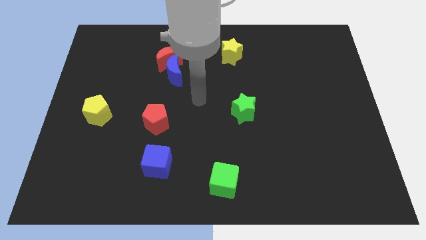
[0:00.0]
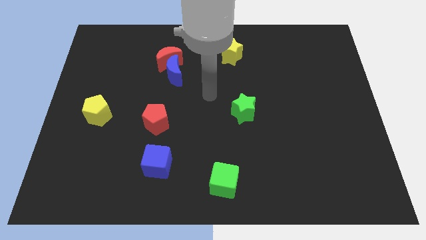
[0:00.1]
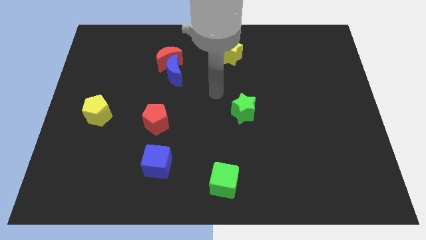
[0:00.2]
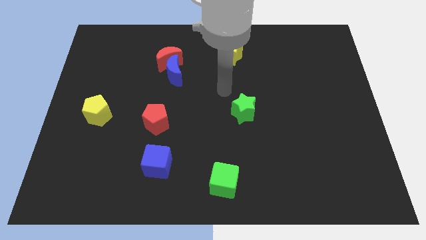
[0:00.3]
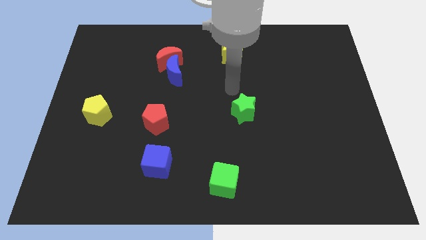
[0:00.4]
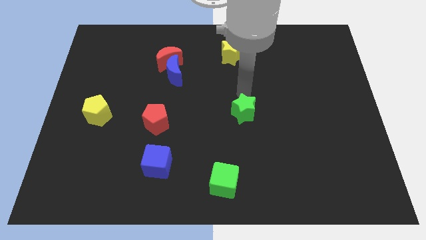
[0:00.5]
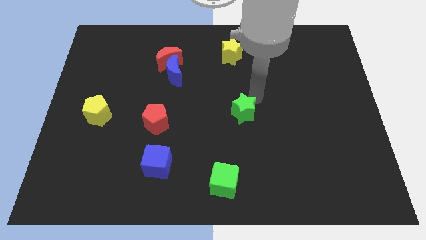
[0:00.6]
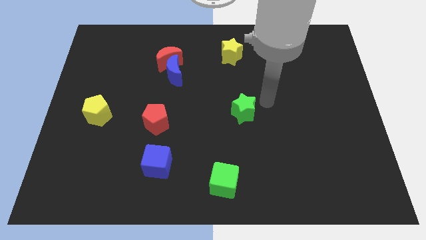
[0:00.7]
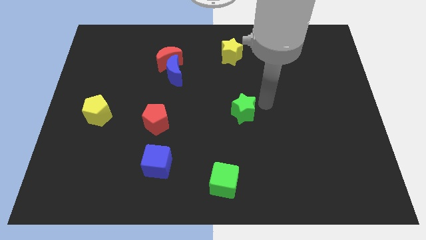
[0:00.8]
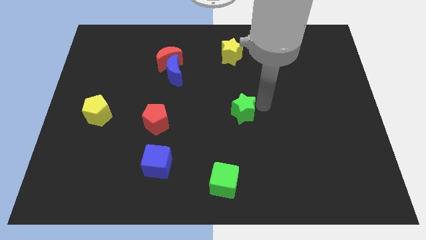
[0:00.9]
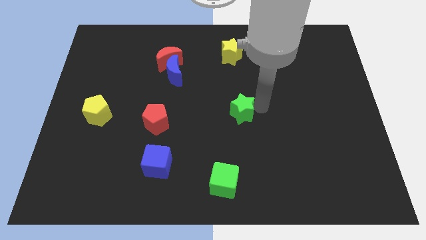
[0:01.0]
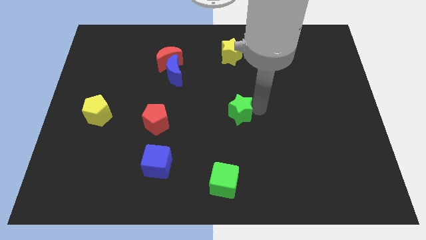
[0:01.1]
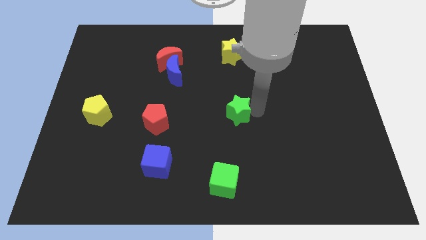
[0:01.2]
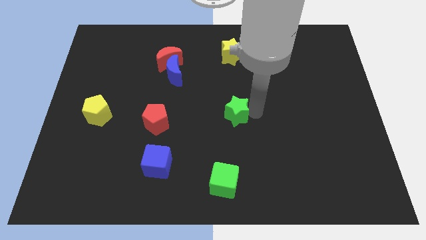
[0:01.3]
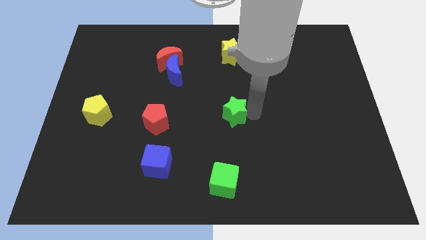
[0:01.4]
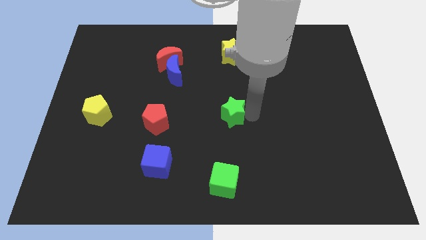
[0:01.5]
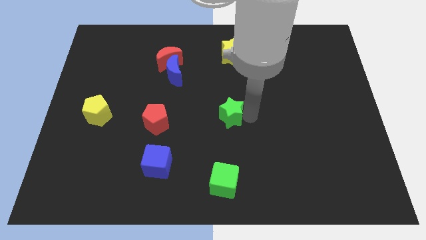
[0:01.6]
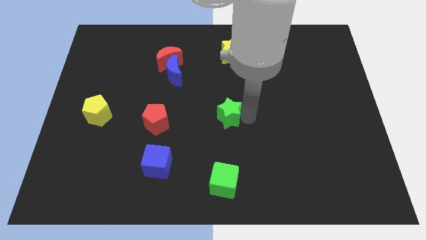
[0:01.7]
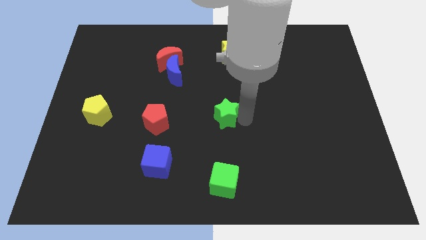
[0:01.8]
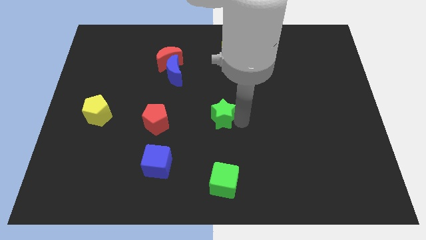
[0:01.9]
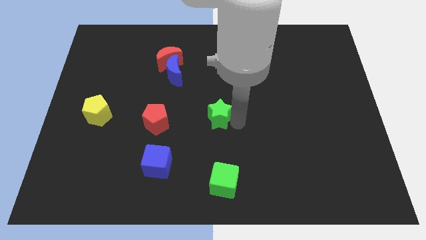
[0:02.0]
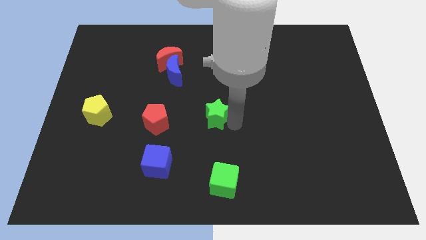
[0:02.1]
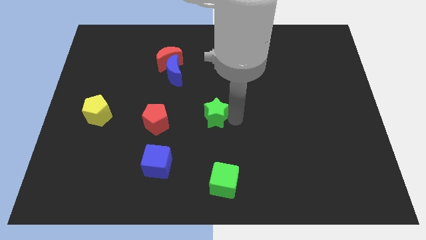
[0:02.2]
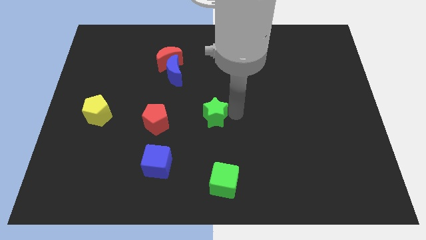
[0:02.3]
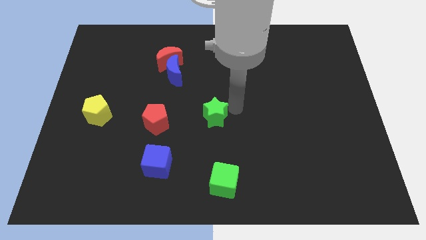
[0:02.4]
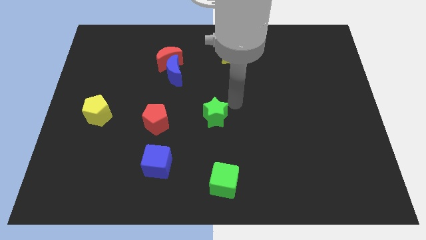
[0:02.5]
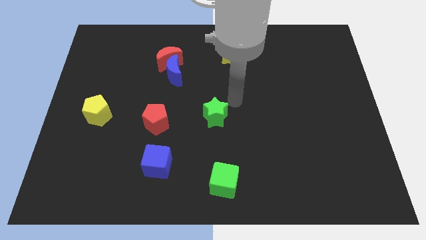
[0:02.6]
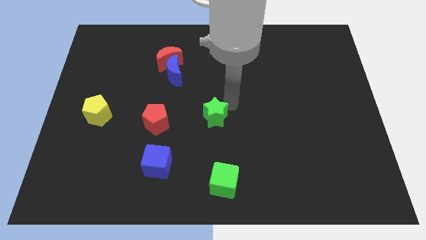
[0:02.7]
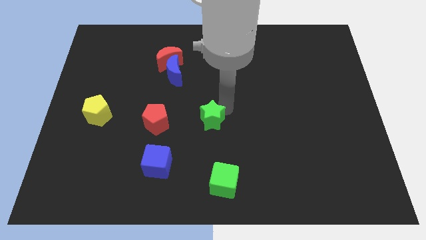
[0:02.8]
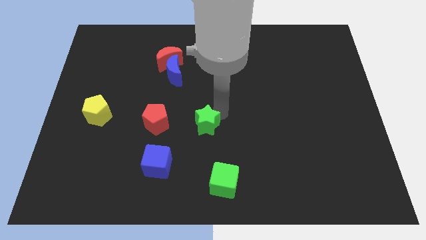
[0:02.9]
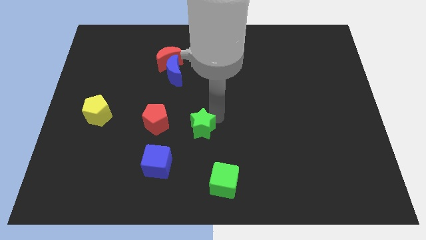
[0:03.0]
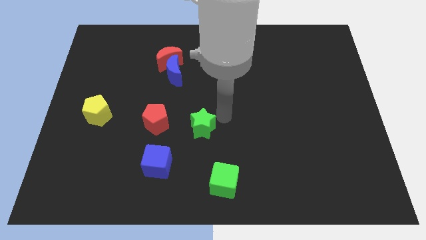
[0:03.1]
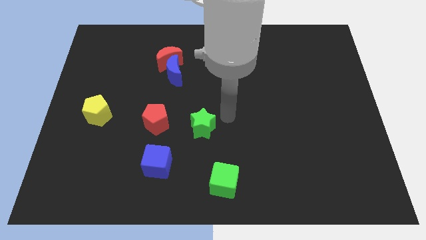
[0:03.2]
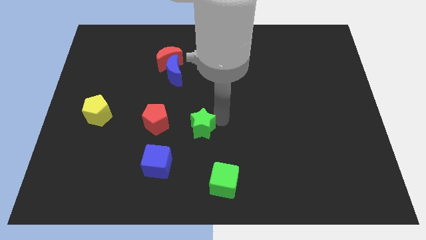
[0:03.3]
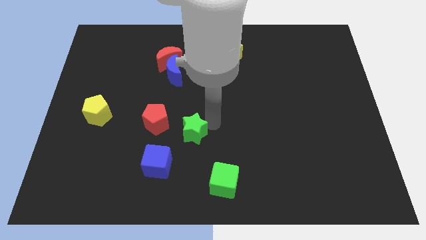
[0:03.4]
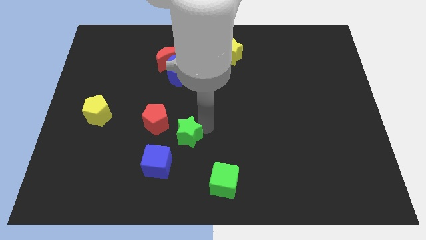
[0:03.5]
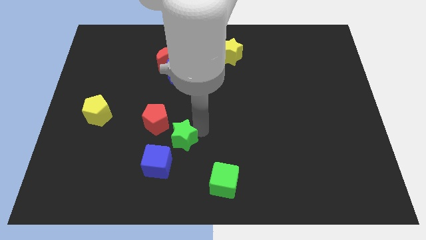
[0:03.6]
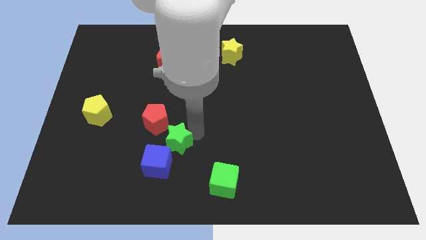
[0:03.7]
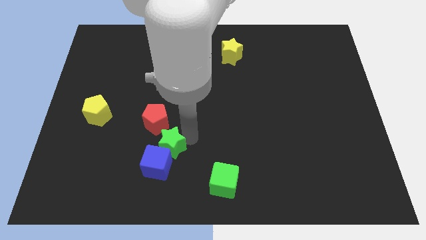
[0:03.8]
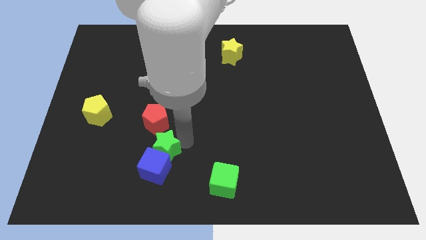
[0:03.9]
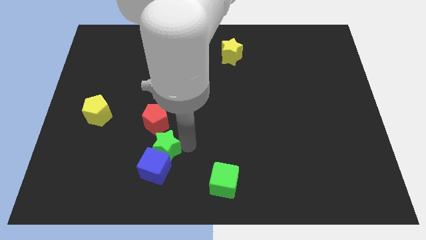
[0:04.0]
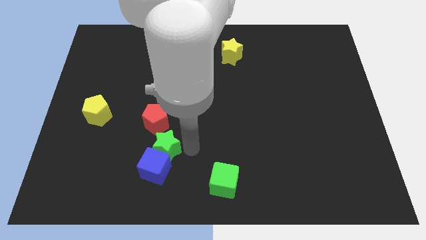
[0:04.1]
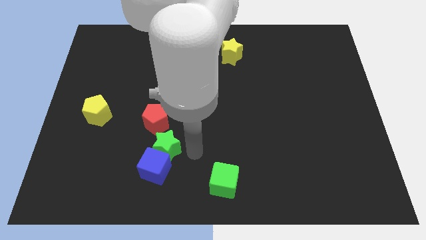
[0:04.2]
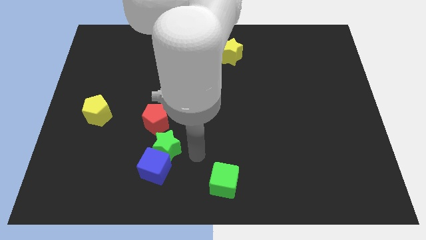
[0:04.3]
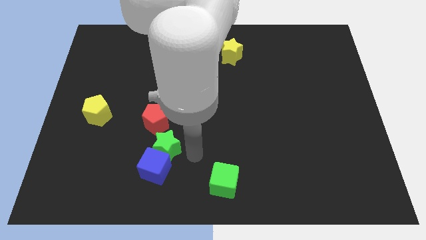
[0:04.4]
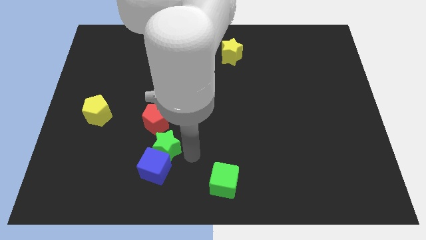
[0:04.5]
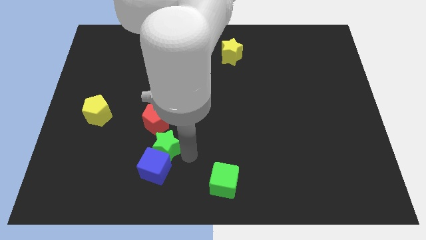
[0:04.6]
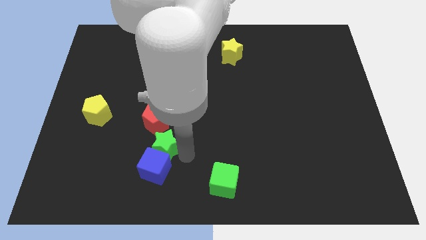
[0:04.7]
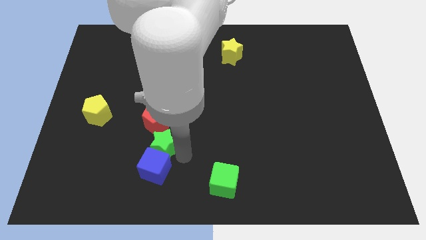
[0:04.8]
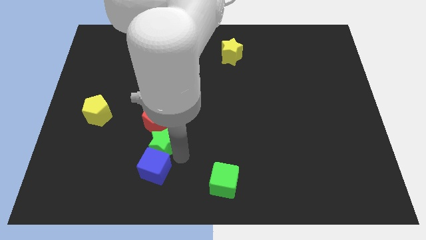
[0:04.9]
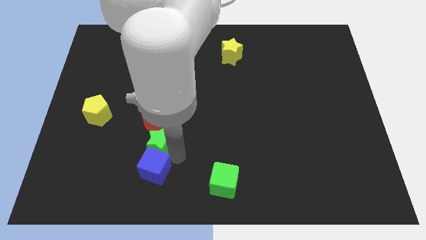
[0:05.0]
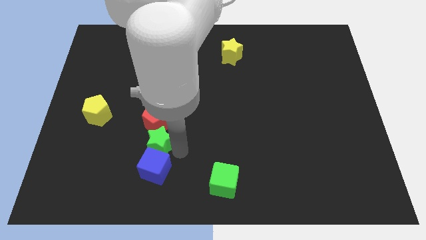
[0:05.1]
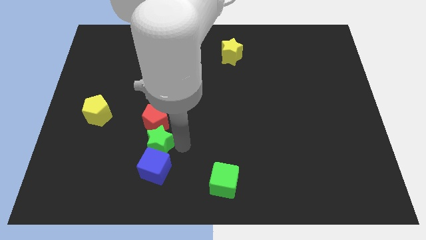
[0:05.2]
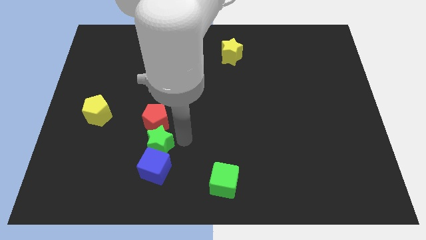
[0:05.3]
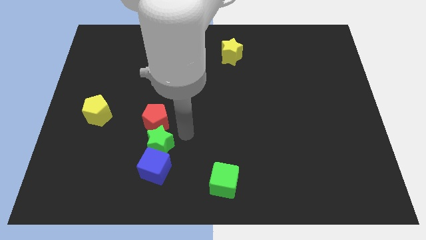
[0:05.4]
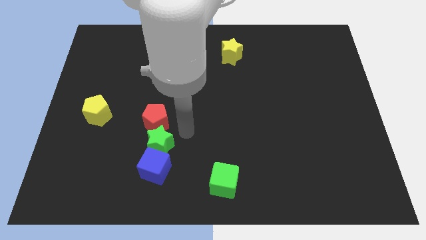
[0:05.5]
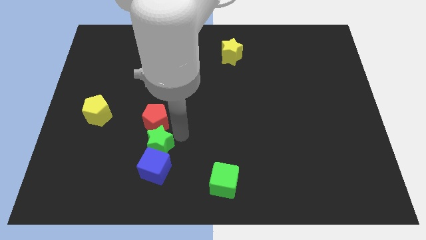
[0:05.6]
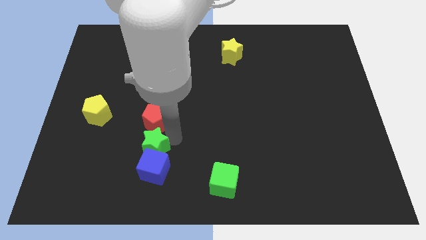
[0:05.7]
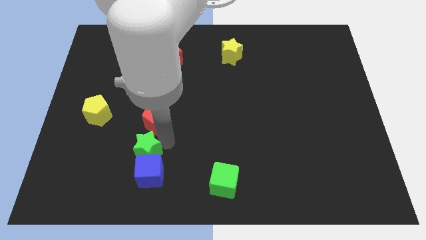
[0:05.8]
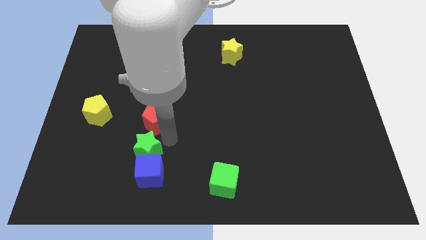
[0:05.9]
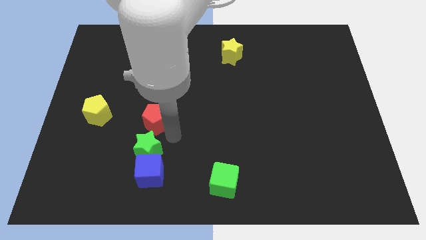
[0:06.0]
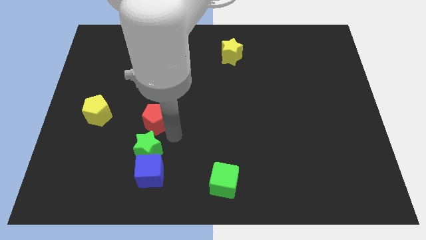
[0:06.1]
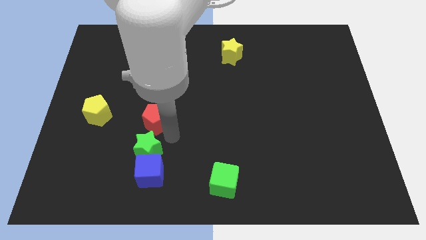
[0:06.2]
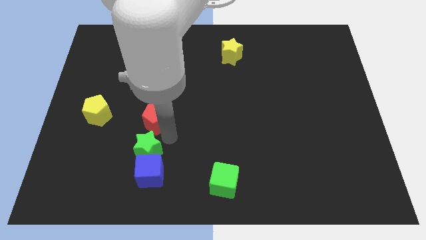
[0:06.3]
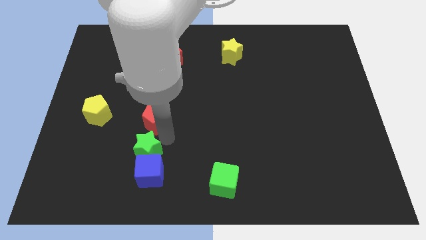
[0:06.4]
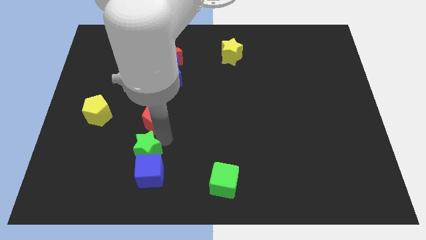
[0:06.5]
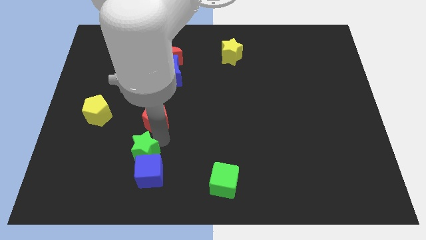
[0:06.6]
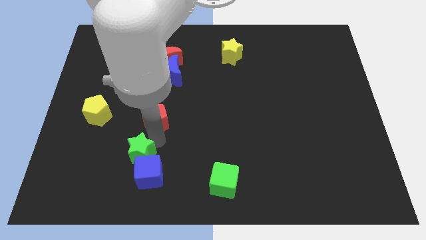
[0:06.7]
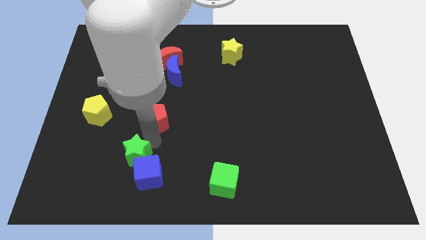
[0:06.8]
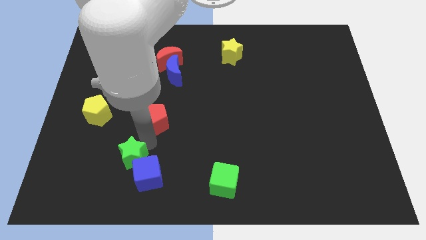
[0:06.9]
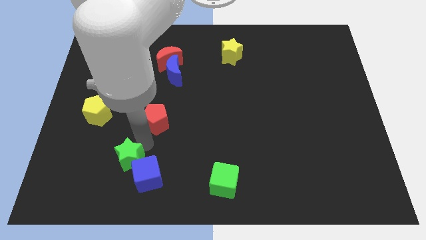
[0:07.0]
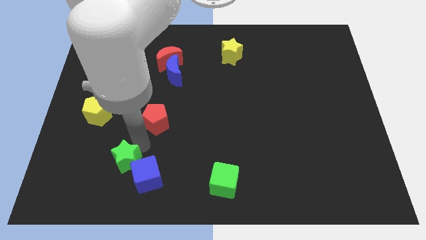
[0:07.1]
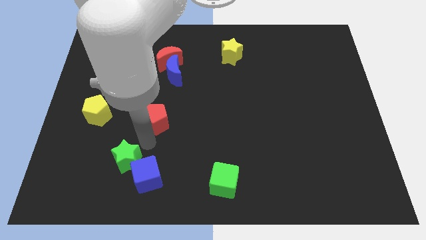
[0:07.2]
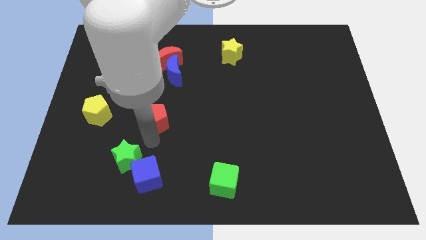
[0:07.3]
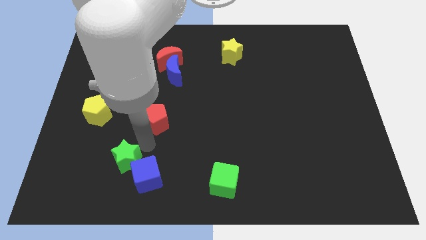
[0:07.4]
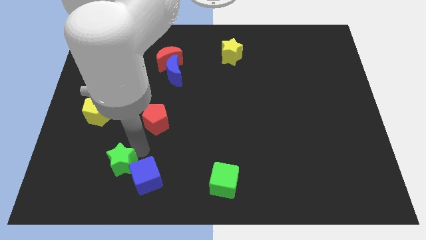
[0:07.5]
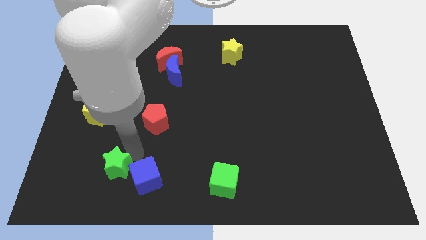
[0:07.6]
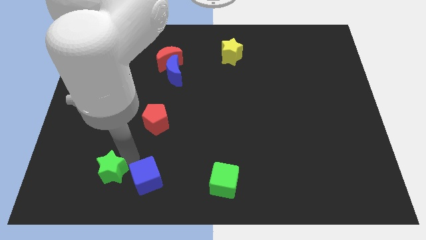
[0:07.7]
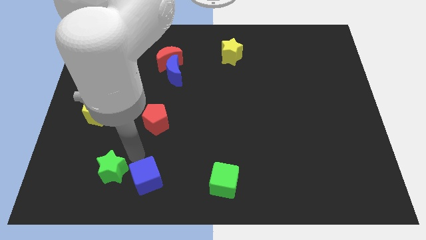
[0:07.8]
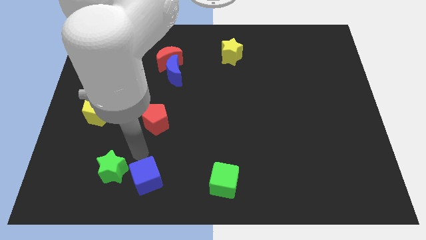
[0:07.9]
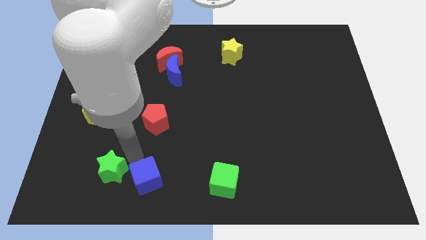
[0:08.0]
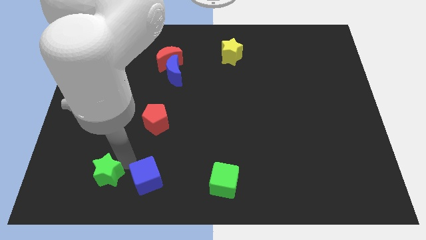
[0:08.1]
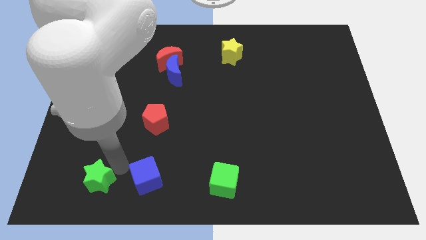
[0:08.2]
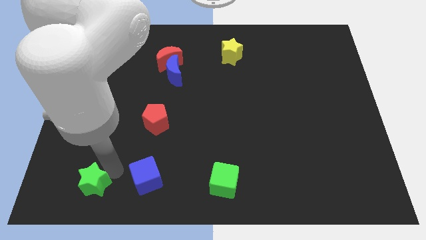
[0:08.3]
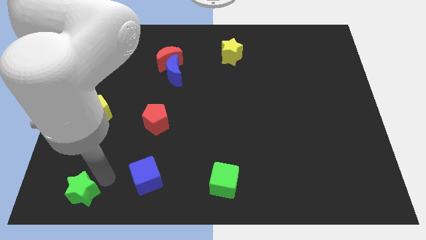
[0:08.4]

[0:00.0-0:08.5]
put the green star to the bottom left
